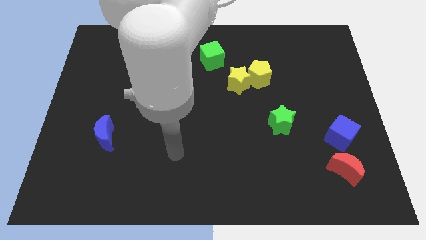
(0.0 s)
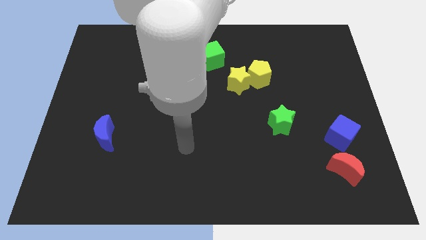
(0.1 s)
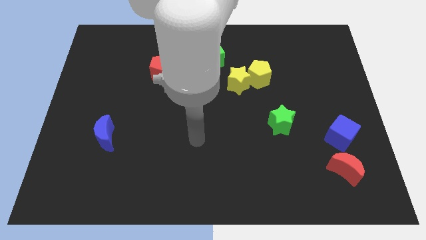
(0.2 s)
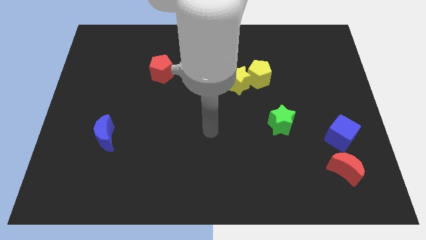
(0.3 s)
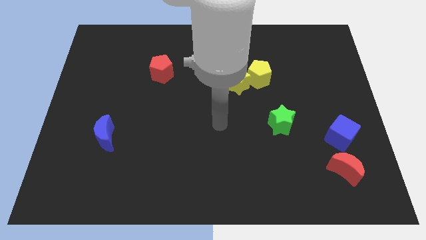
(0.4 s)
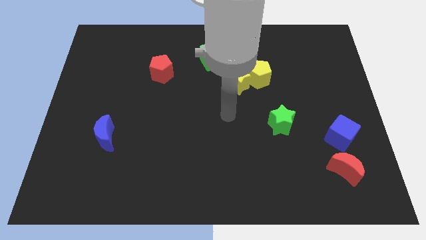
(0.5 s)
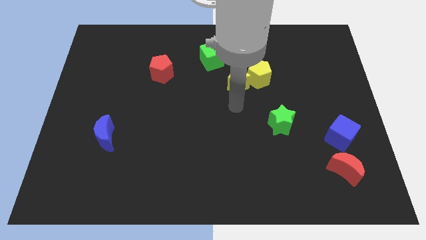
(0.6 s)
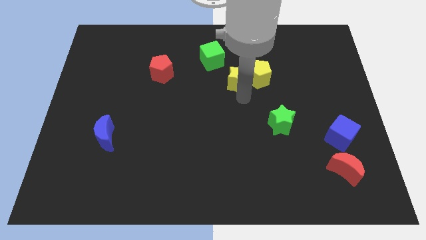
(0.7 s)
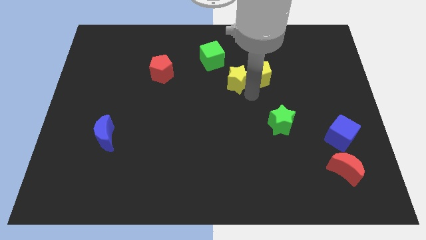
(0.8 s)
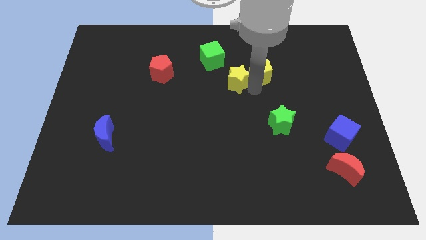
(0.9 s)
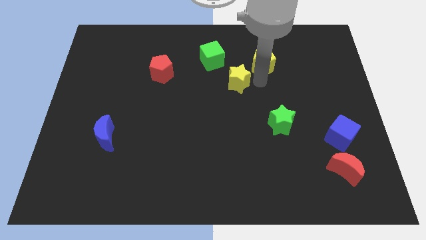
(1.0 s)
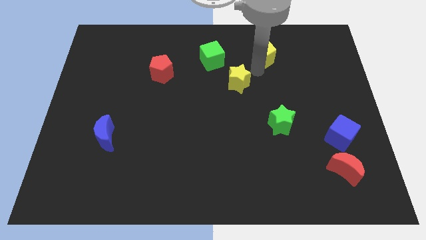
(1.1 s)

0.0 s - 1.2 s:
move the yellow star away from the yellow pentagon

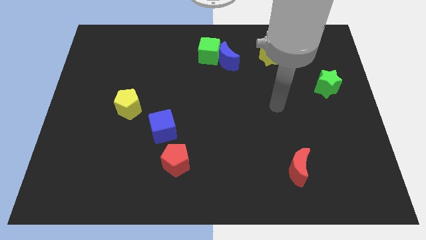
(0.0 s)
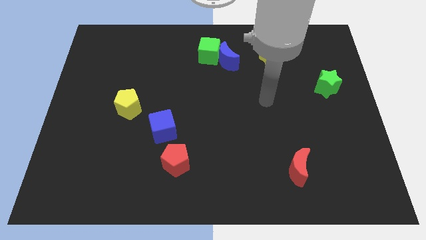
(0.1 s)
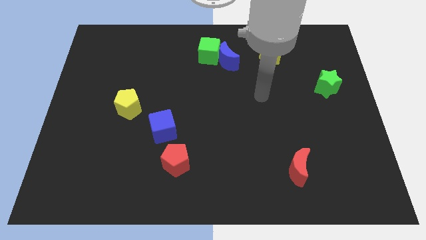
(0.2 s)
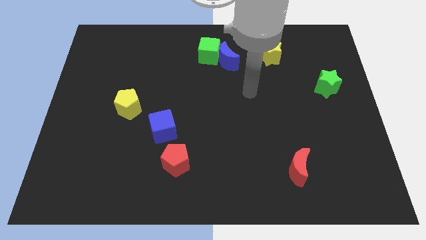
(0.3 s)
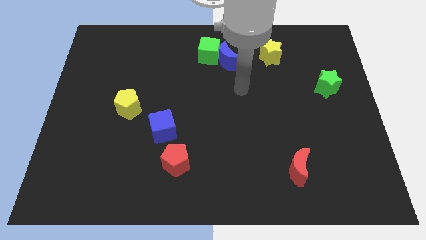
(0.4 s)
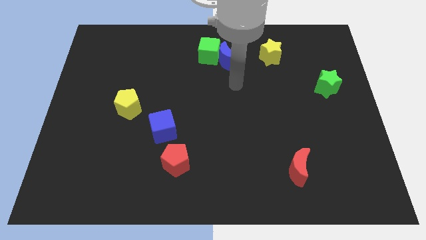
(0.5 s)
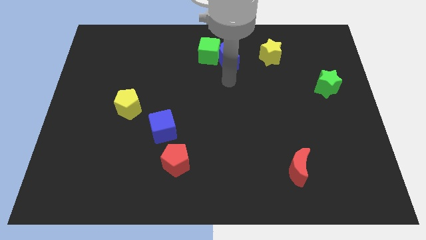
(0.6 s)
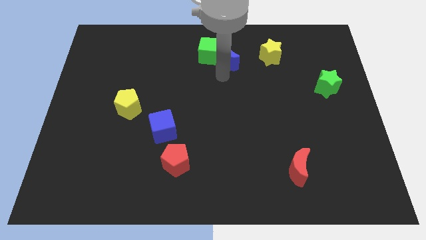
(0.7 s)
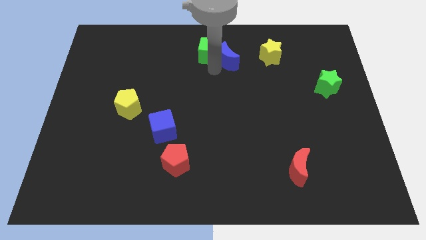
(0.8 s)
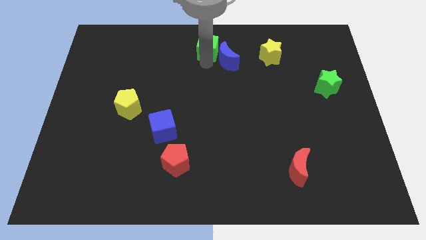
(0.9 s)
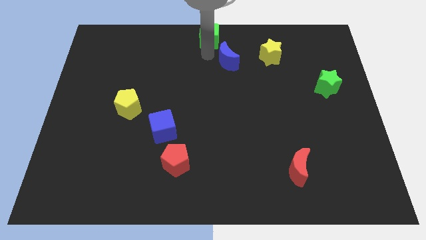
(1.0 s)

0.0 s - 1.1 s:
separate the blue moon from the green cube

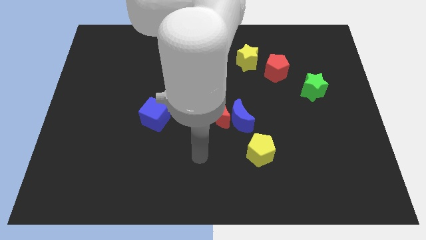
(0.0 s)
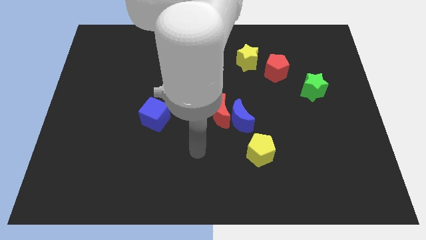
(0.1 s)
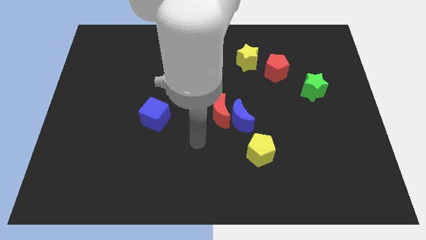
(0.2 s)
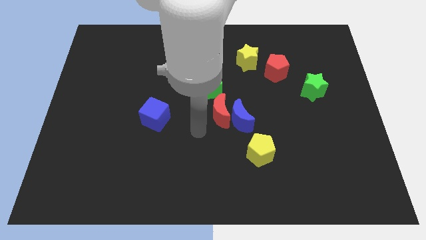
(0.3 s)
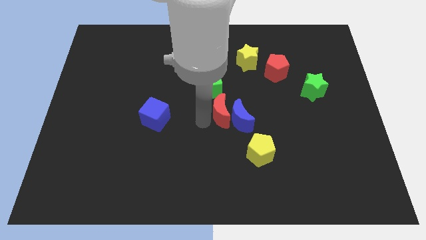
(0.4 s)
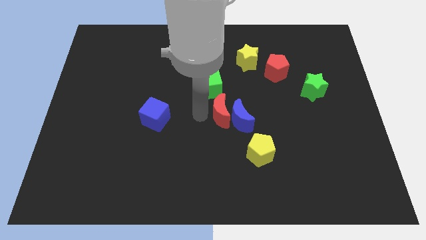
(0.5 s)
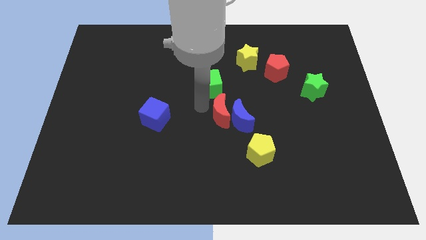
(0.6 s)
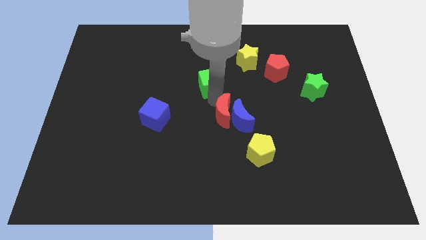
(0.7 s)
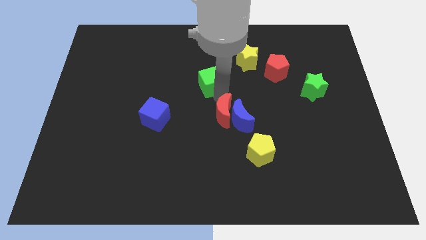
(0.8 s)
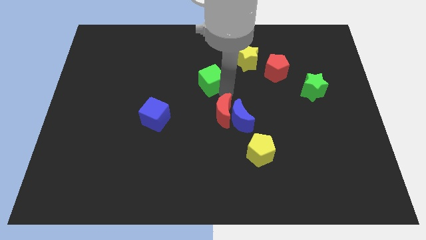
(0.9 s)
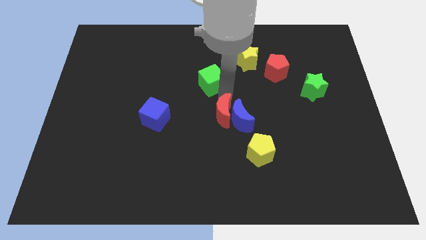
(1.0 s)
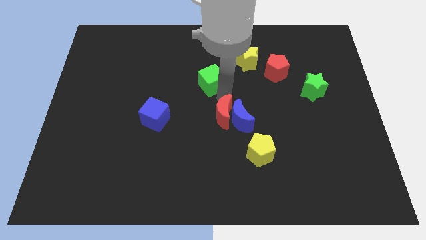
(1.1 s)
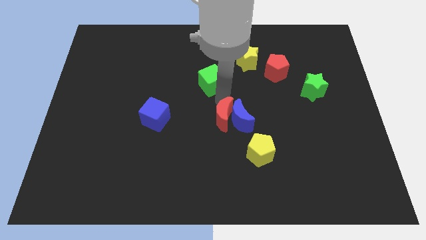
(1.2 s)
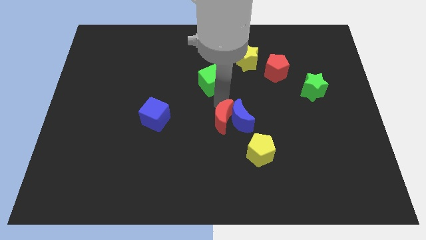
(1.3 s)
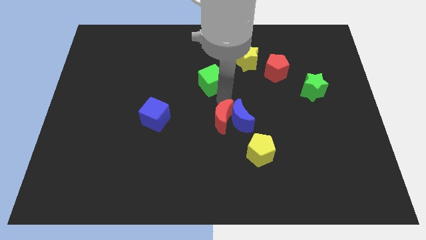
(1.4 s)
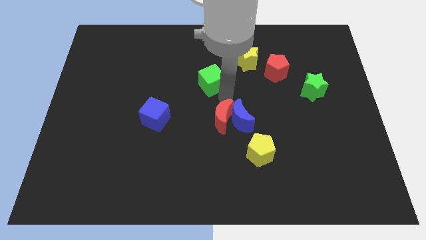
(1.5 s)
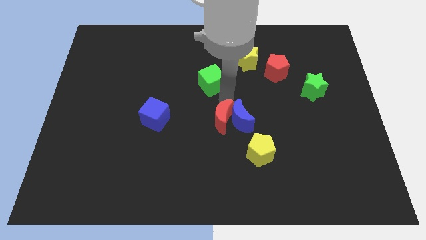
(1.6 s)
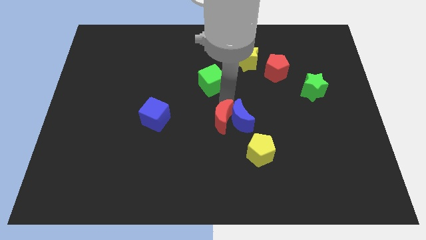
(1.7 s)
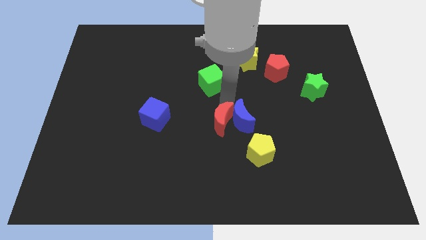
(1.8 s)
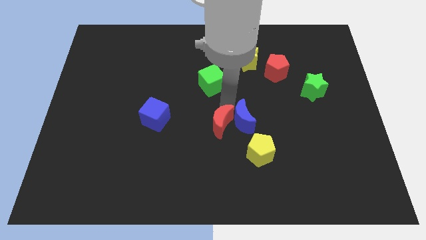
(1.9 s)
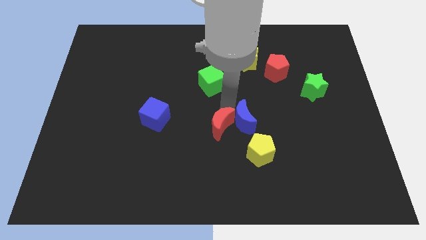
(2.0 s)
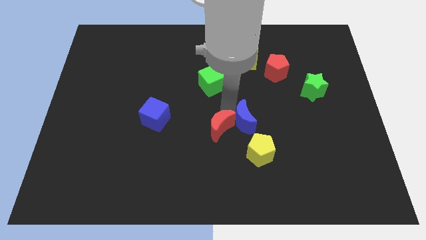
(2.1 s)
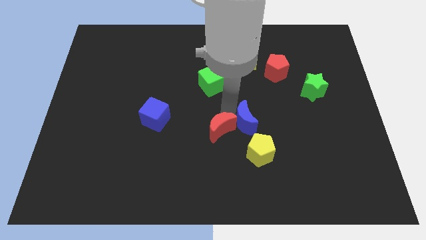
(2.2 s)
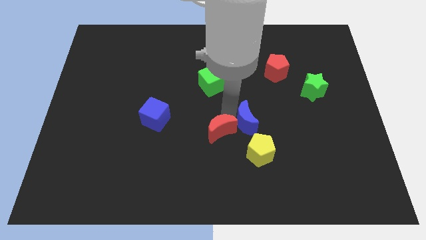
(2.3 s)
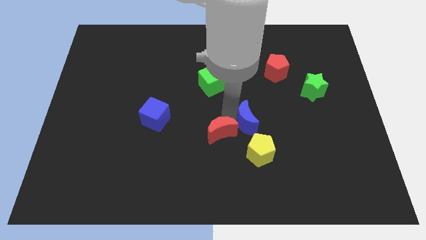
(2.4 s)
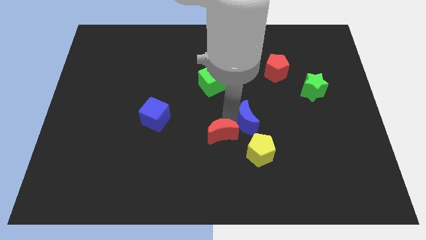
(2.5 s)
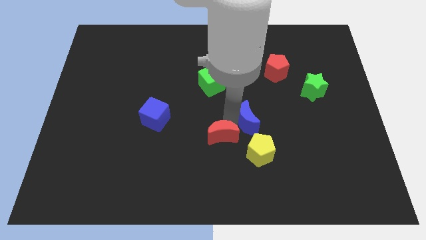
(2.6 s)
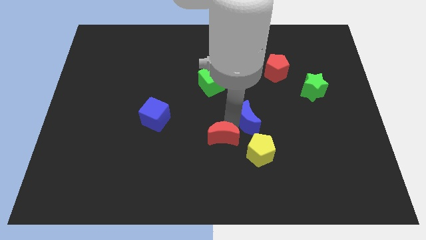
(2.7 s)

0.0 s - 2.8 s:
separate the red moon from the blue moon and green cube

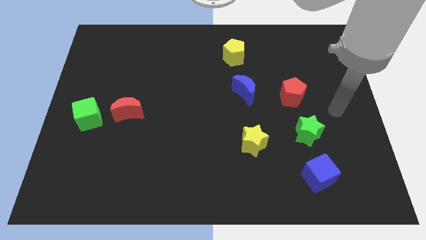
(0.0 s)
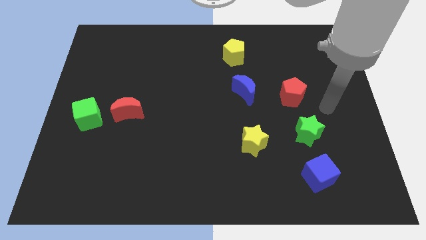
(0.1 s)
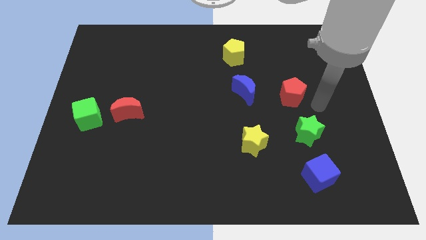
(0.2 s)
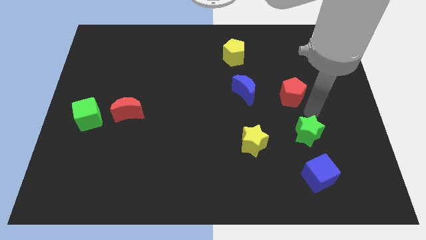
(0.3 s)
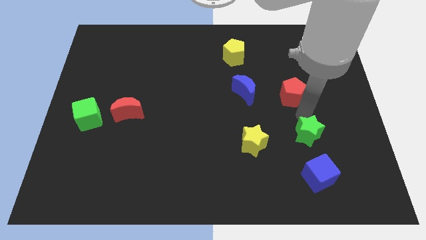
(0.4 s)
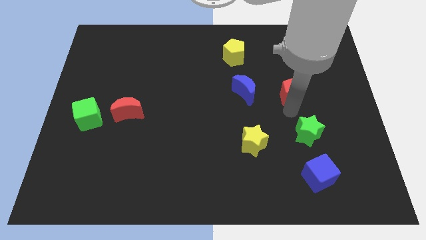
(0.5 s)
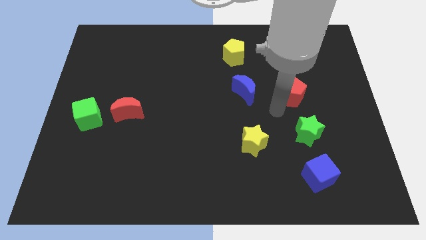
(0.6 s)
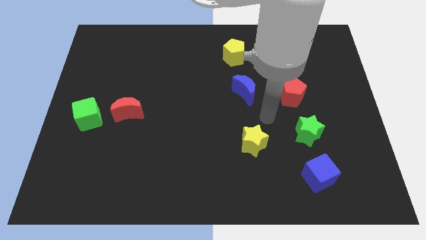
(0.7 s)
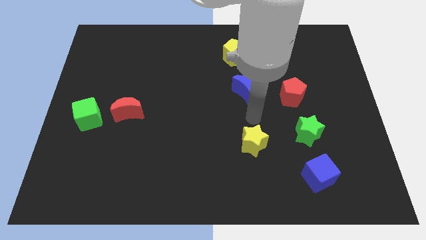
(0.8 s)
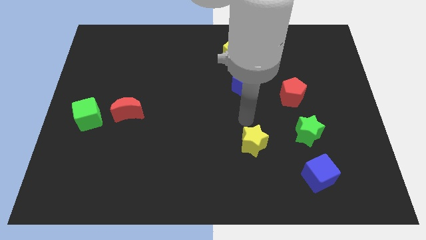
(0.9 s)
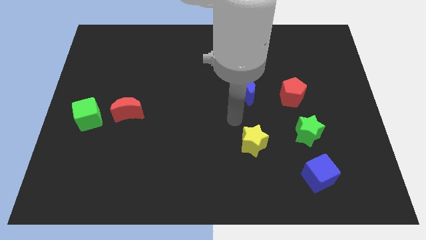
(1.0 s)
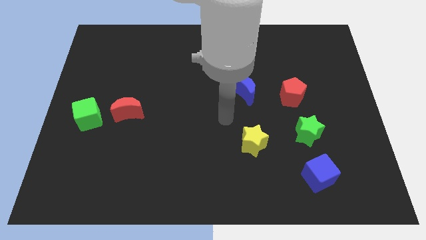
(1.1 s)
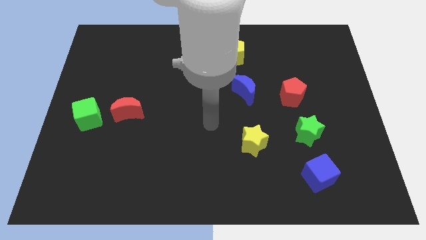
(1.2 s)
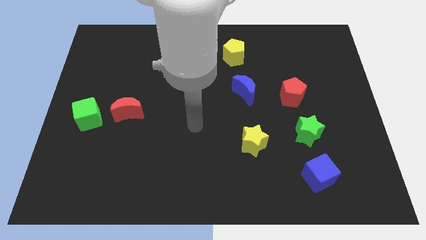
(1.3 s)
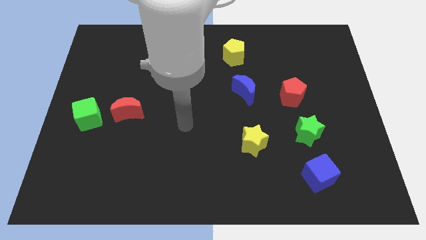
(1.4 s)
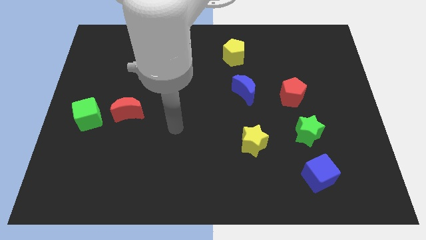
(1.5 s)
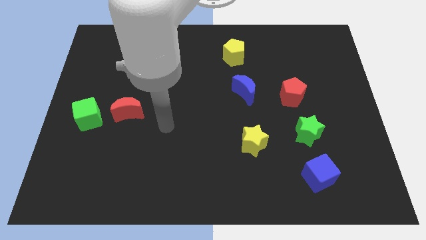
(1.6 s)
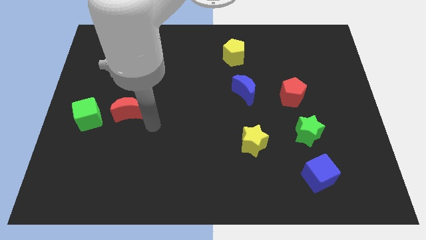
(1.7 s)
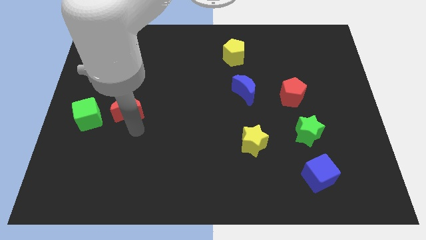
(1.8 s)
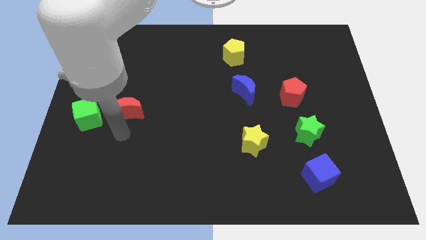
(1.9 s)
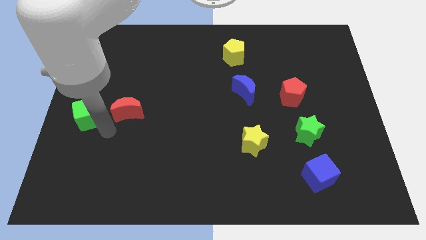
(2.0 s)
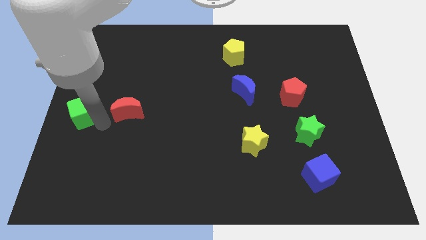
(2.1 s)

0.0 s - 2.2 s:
move the red moon away from the green cube

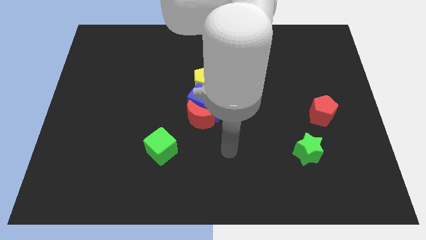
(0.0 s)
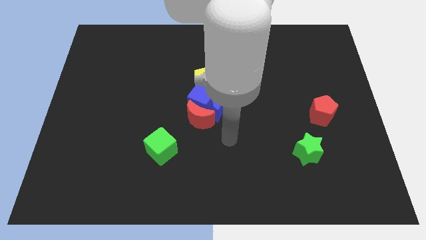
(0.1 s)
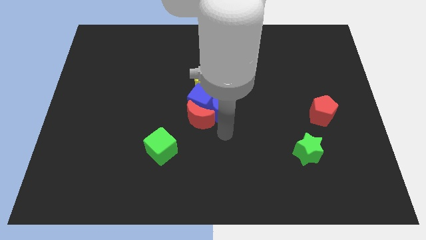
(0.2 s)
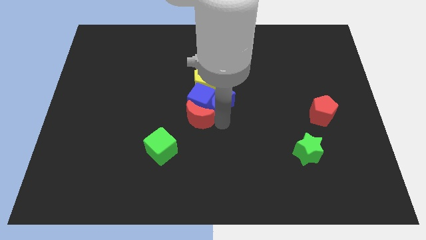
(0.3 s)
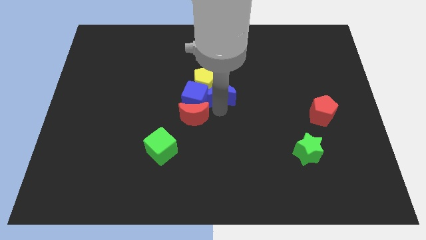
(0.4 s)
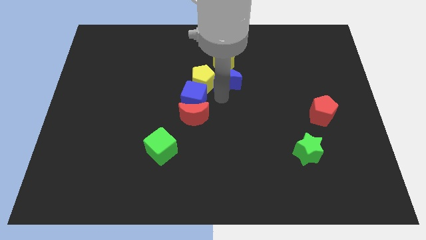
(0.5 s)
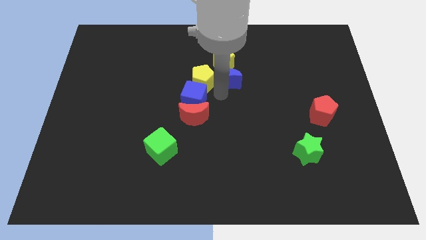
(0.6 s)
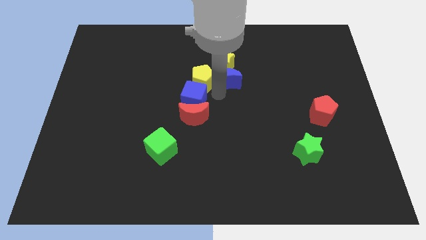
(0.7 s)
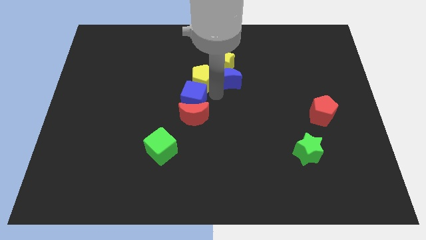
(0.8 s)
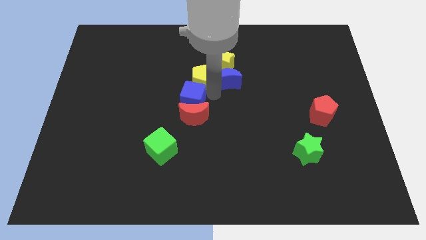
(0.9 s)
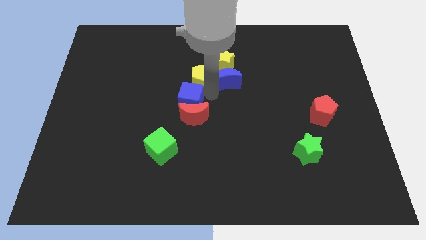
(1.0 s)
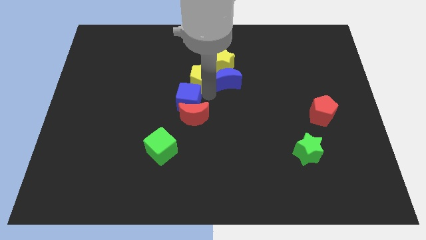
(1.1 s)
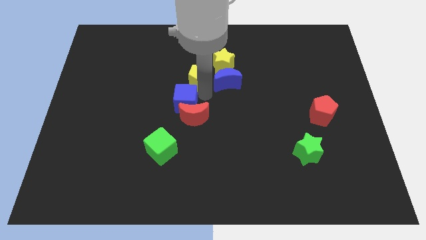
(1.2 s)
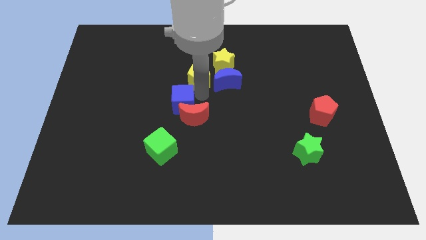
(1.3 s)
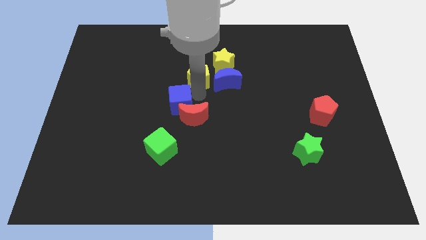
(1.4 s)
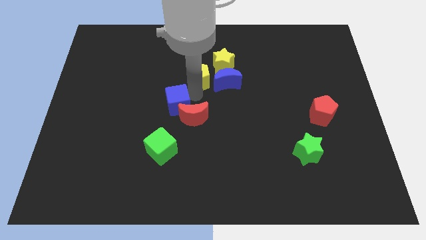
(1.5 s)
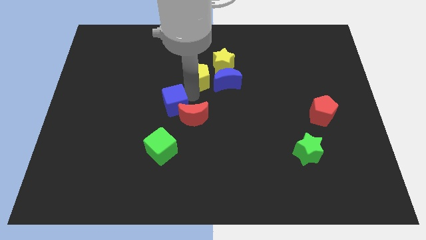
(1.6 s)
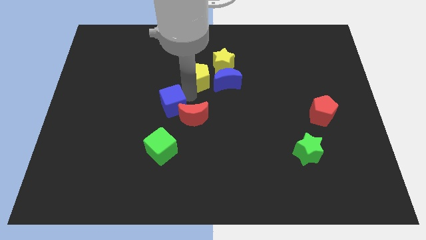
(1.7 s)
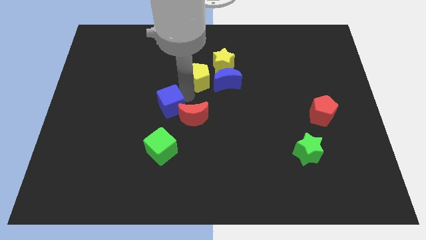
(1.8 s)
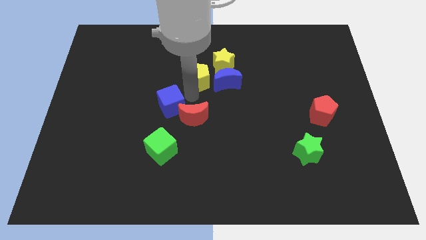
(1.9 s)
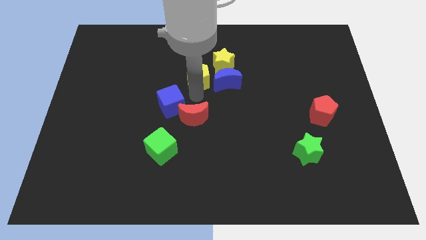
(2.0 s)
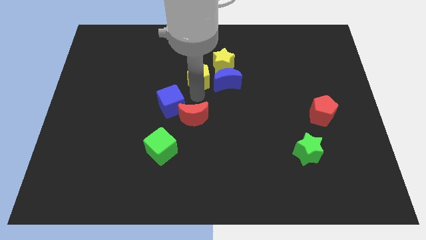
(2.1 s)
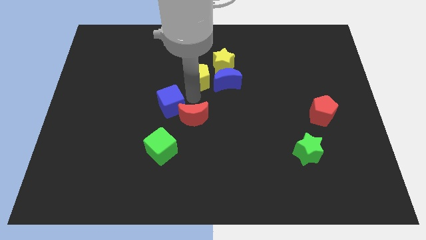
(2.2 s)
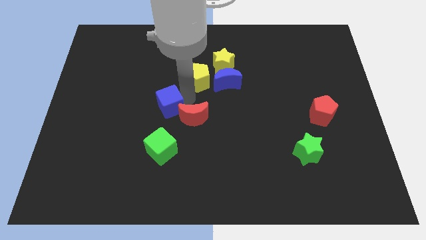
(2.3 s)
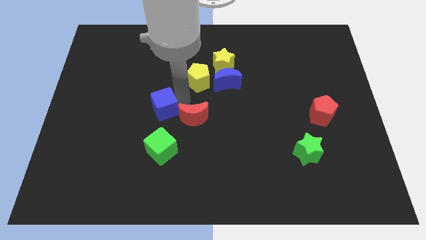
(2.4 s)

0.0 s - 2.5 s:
move the blue cube away from the blue moon, red moon, and yellow pentagon
